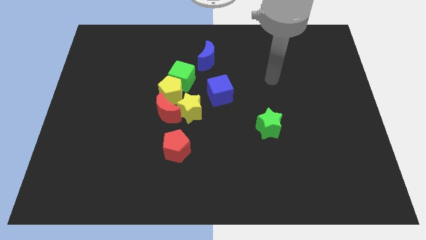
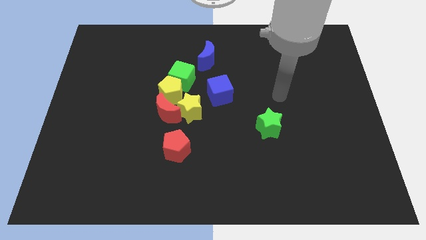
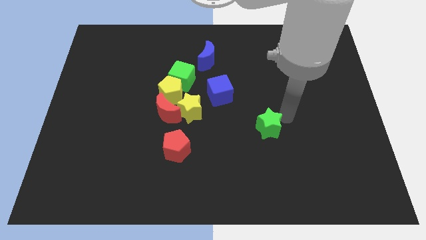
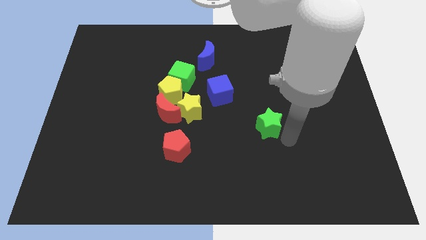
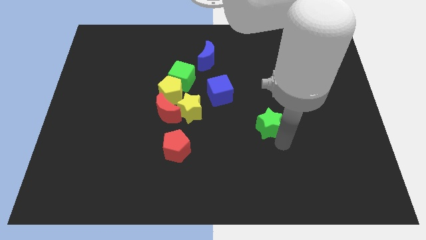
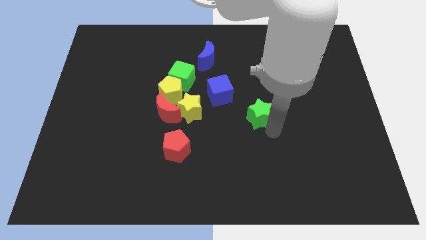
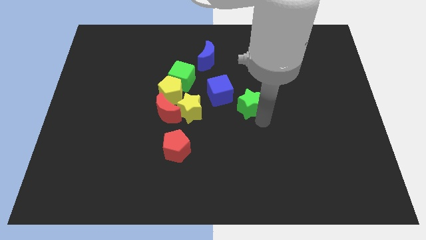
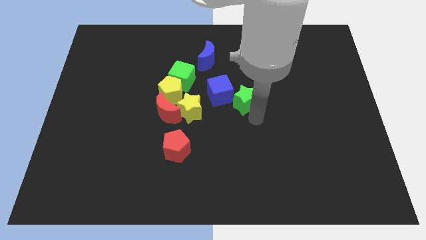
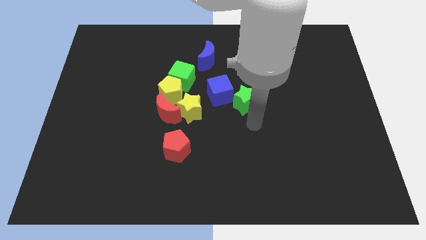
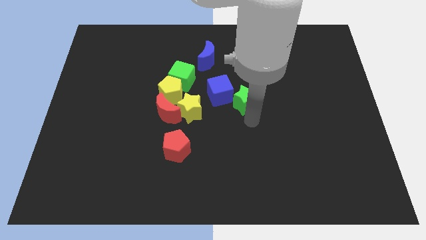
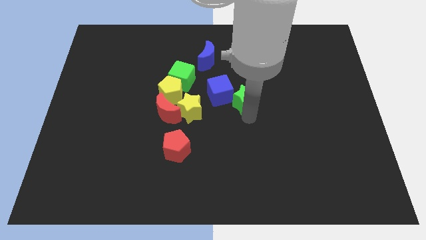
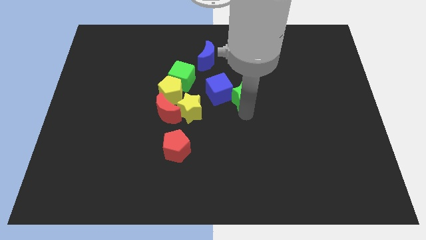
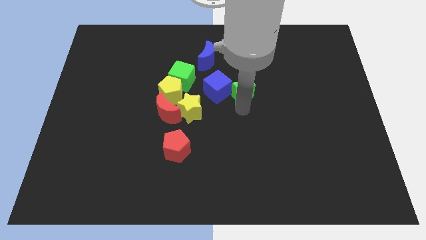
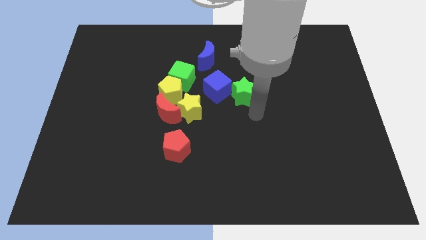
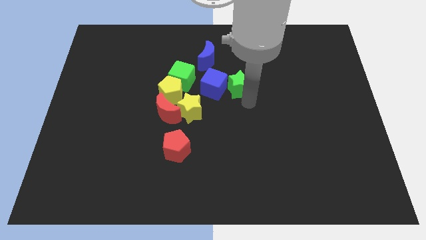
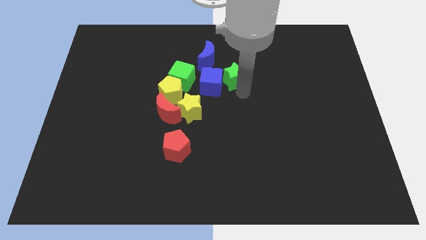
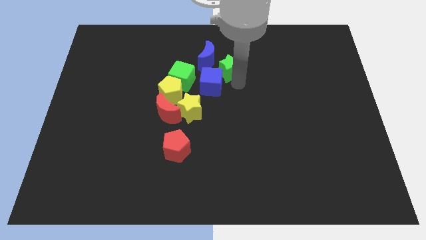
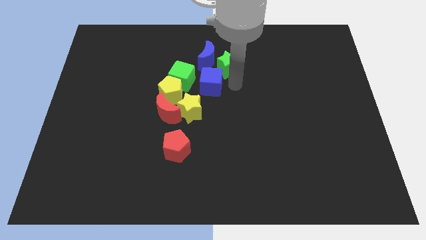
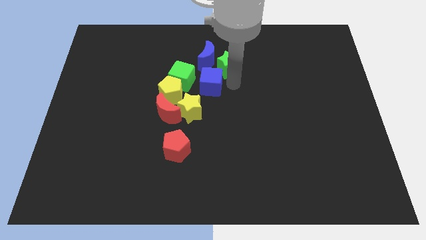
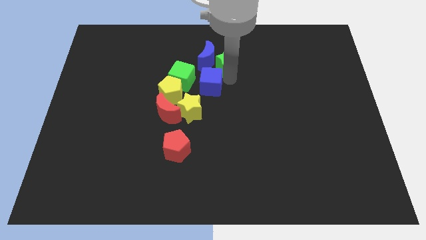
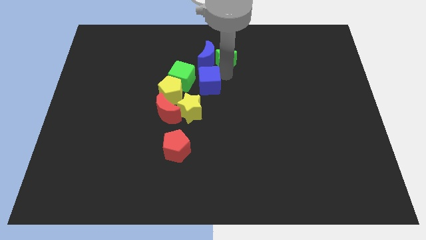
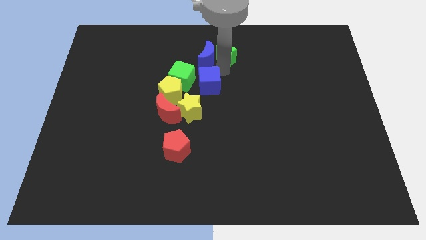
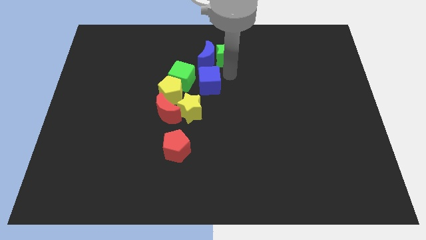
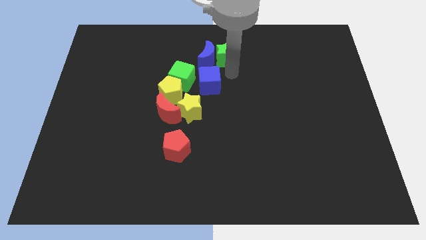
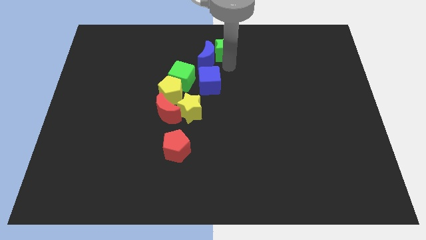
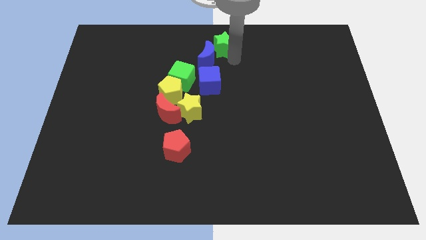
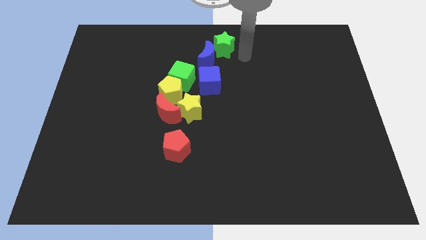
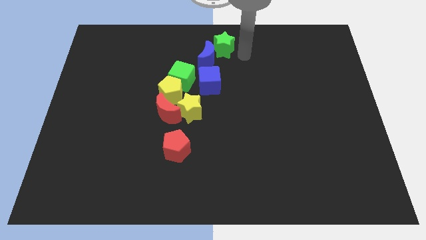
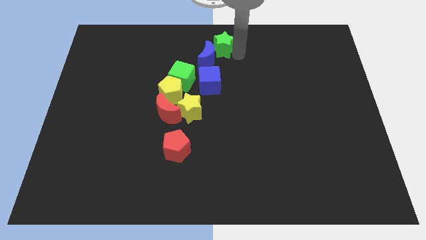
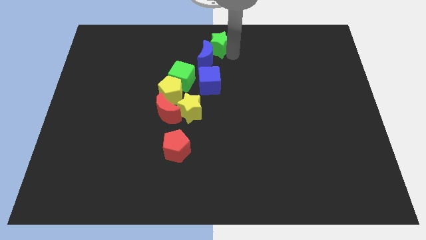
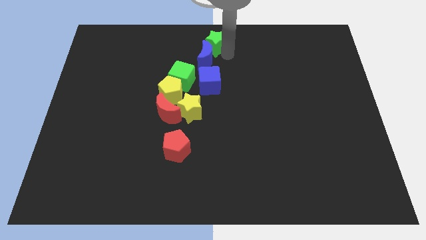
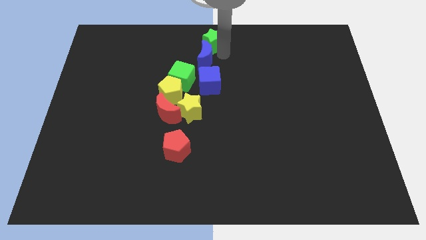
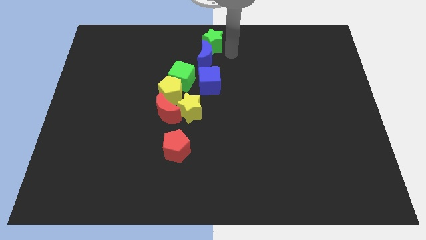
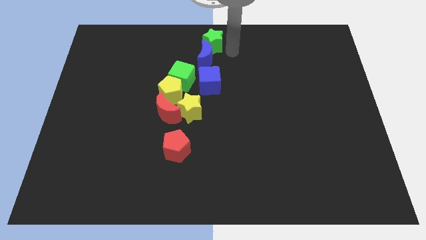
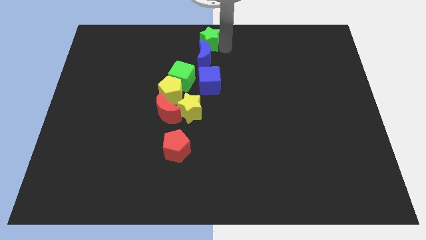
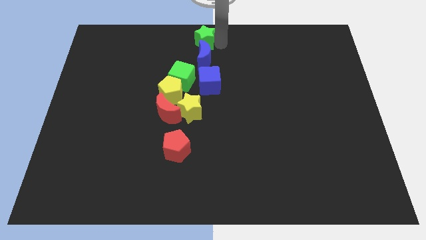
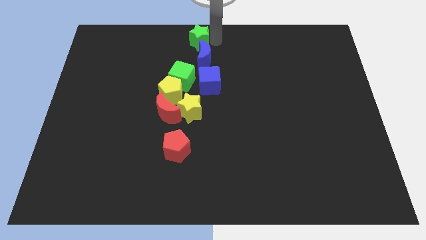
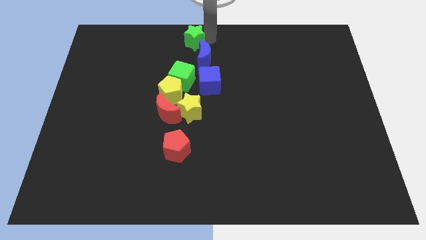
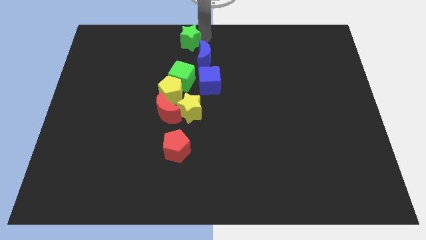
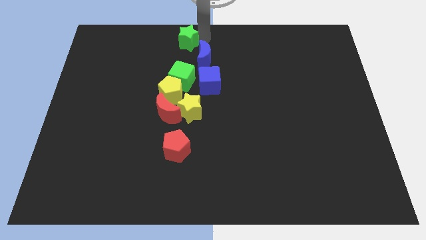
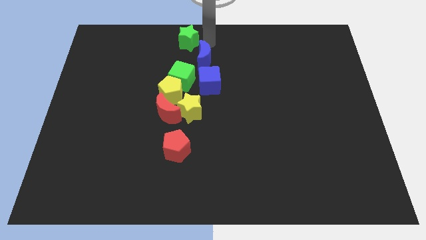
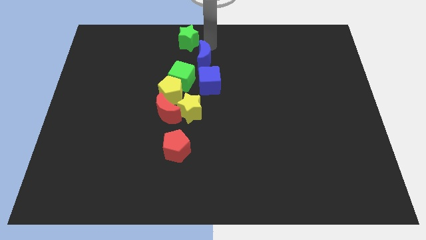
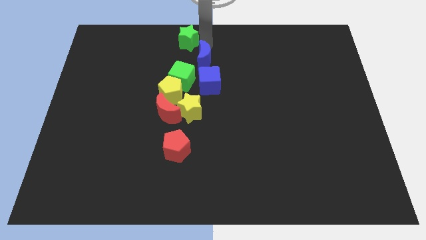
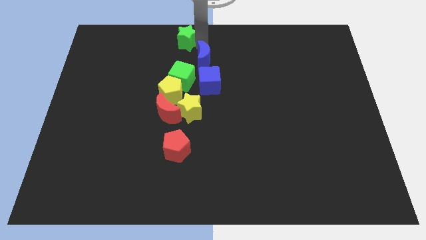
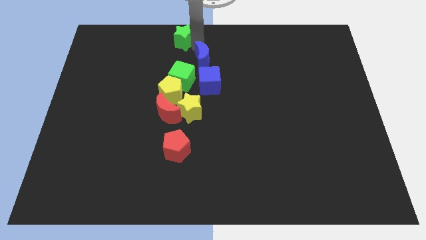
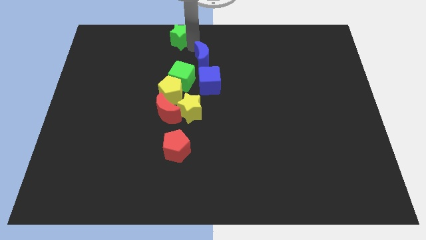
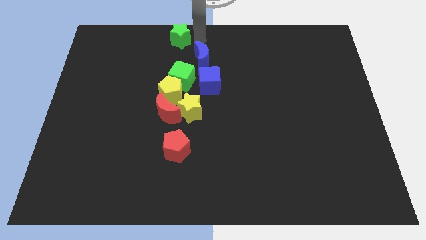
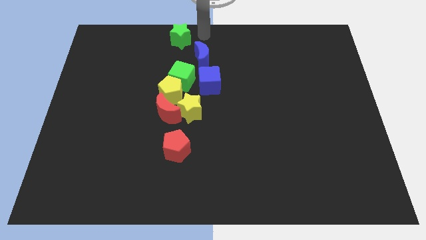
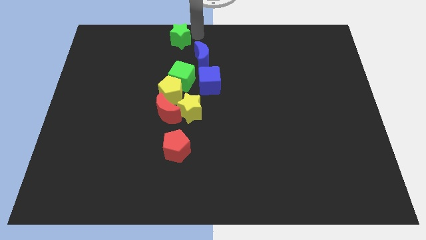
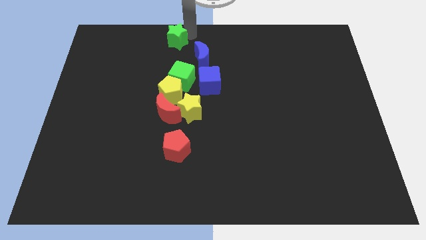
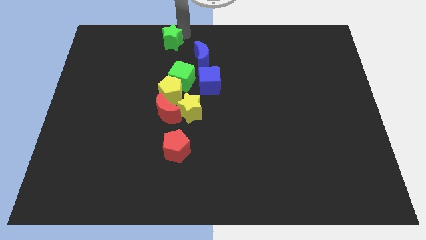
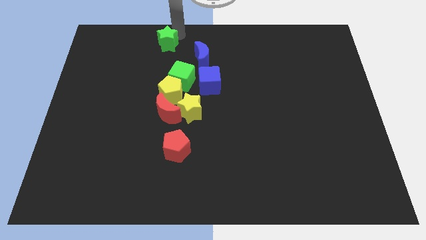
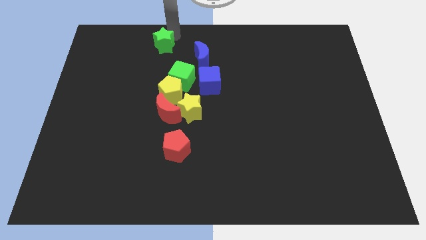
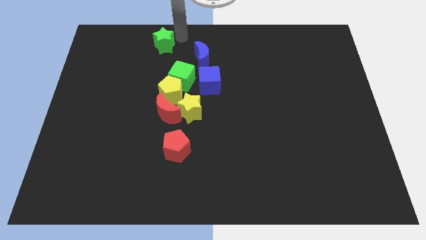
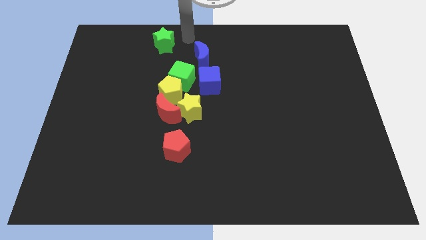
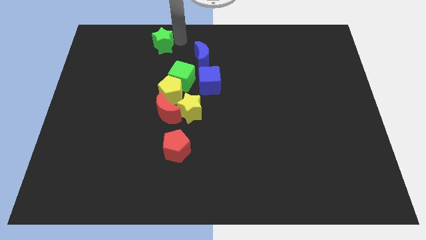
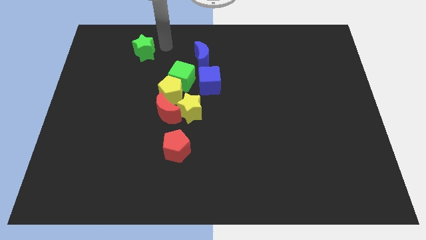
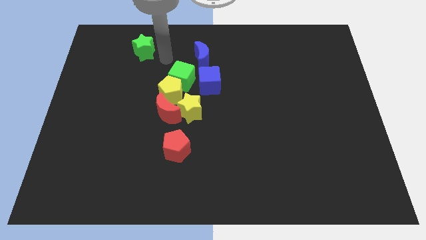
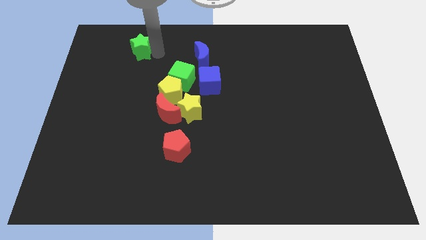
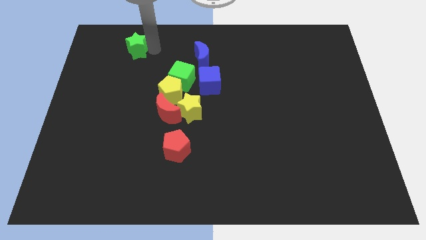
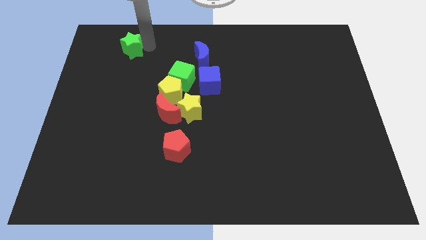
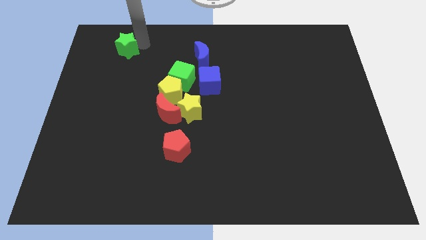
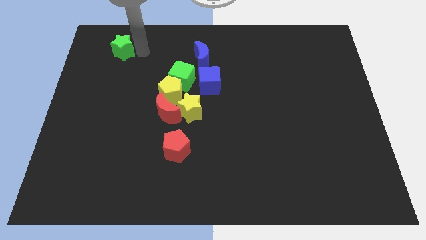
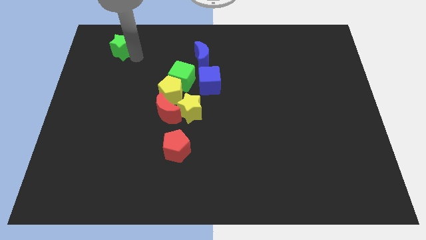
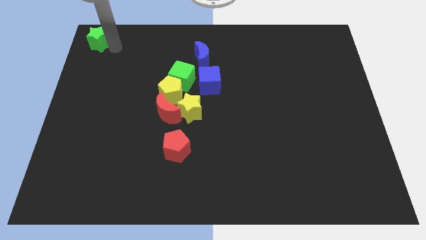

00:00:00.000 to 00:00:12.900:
push the green star to the top left corner

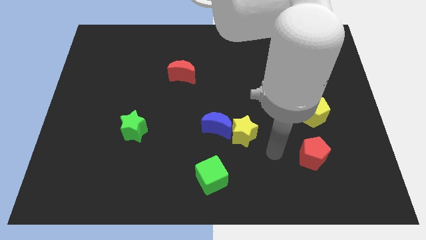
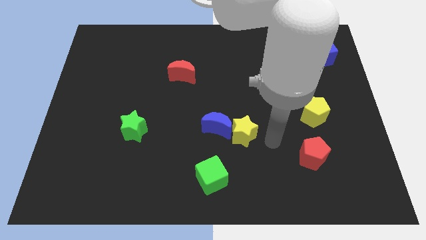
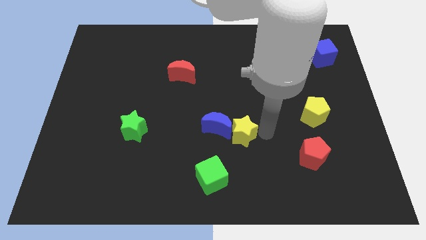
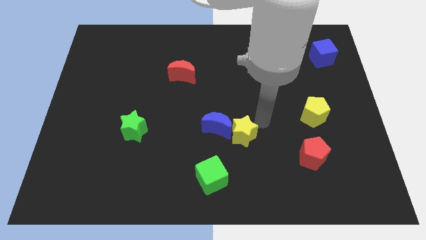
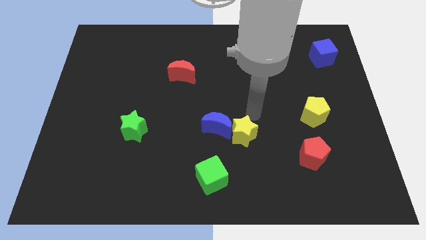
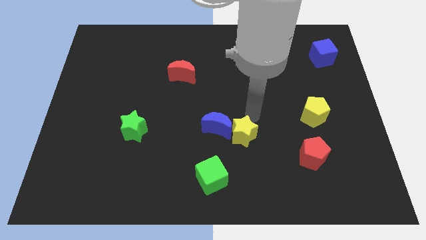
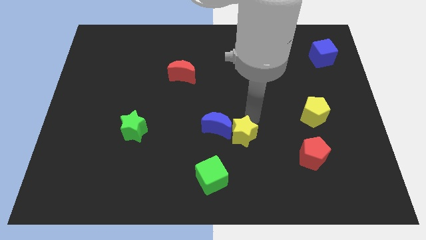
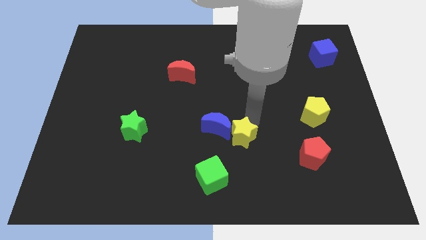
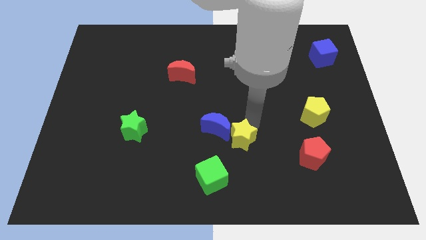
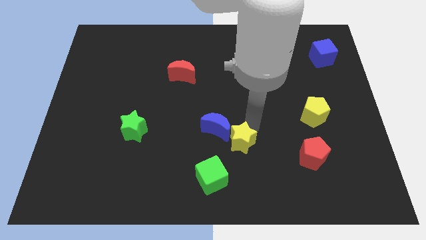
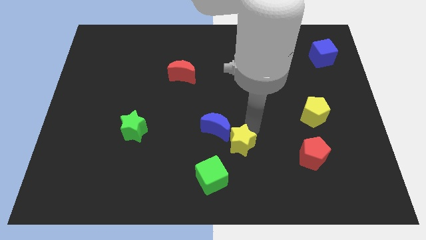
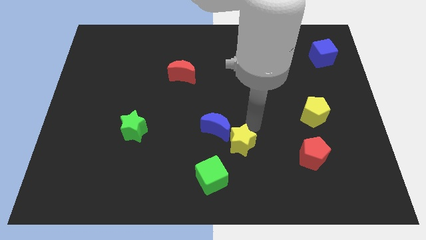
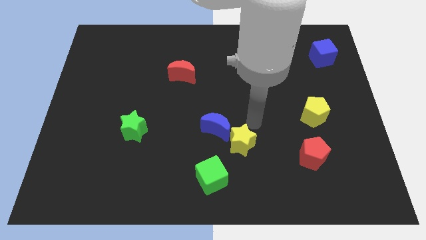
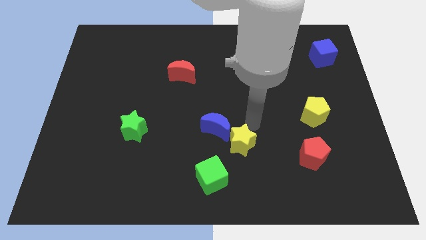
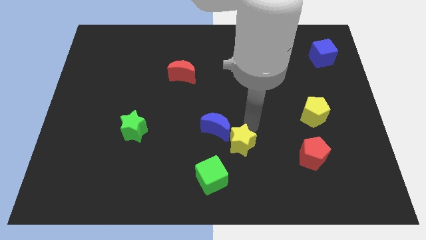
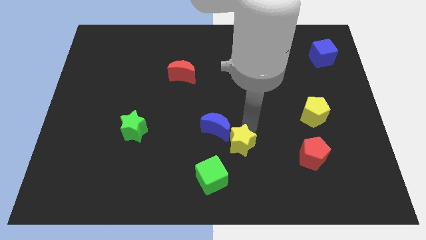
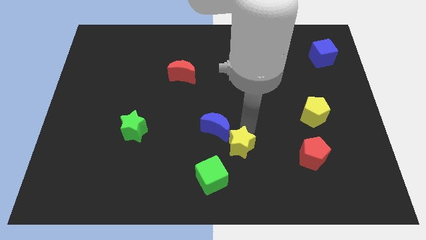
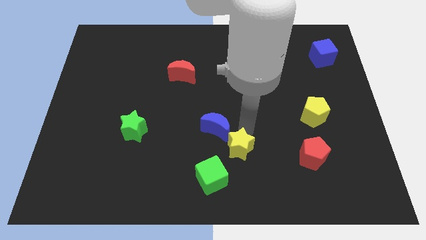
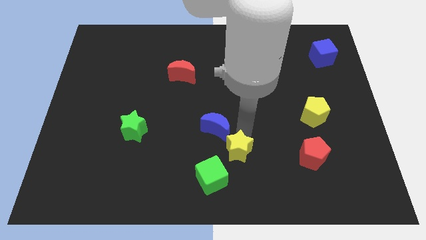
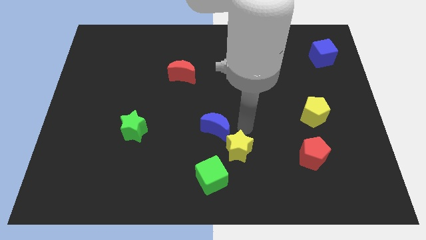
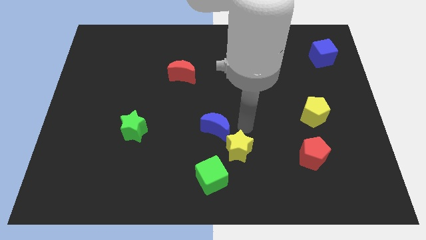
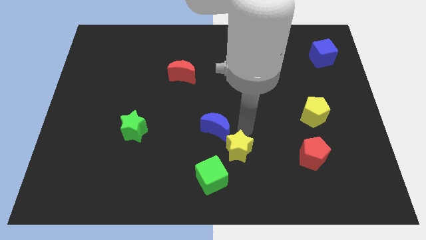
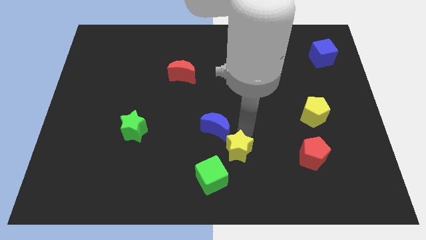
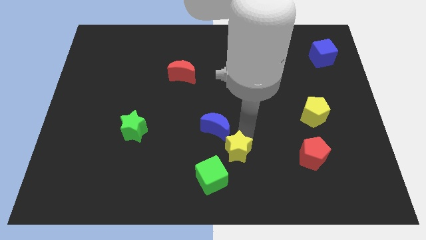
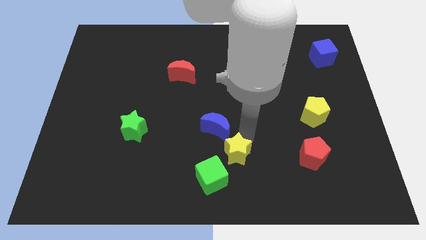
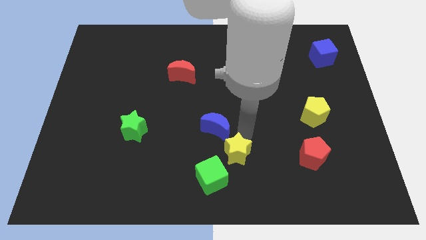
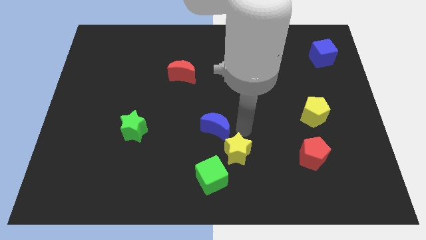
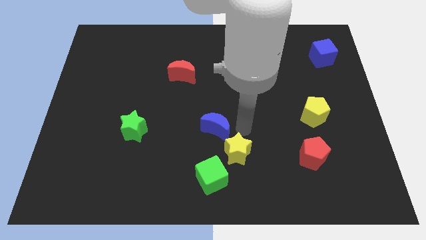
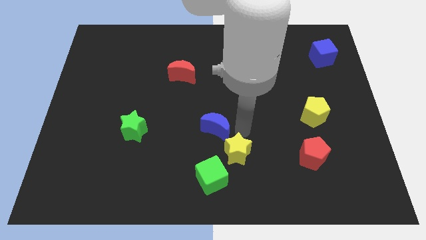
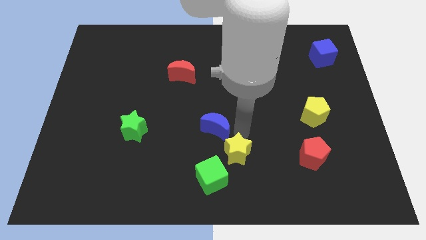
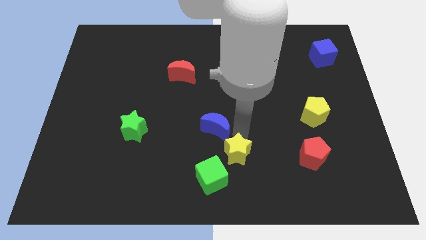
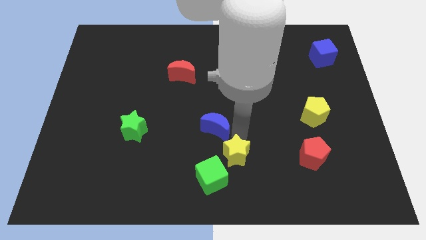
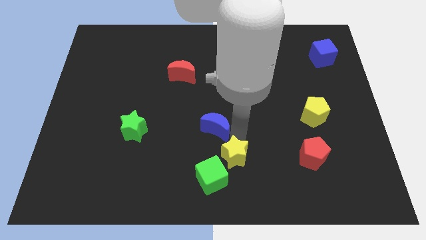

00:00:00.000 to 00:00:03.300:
slide the yellow star to the bottom
